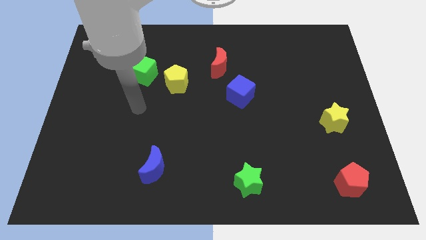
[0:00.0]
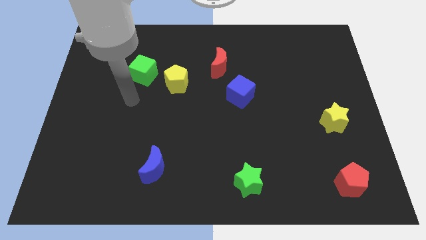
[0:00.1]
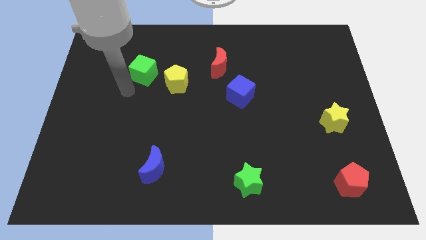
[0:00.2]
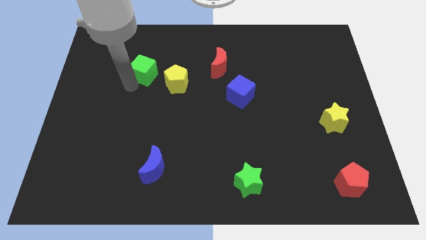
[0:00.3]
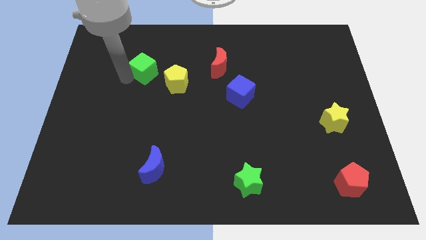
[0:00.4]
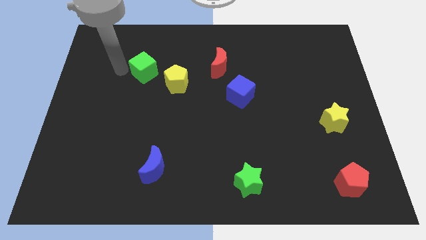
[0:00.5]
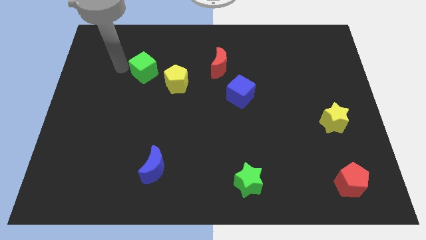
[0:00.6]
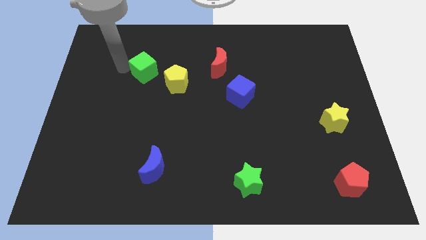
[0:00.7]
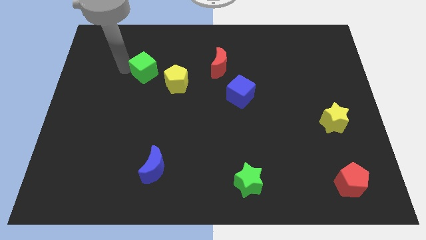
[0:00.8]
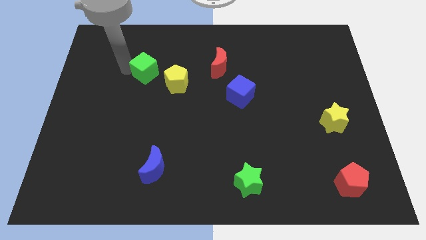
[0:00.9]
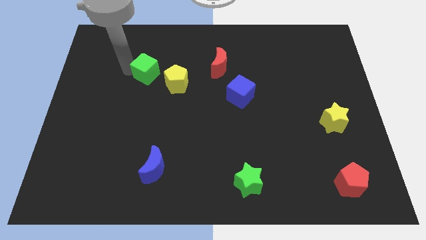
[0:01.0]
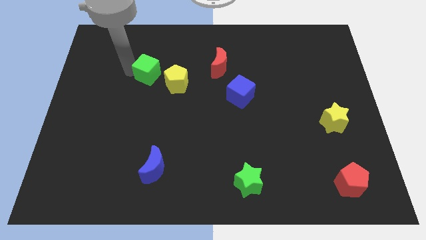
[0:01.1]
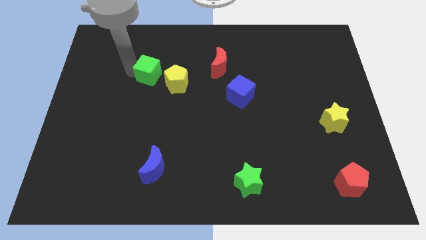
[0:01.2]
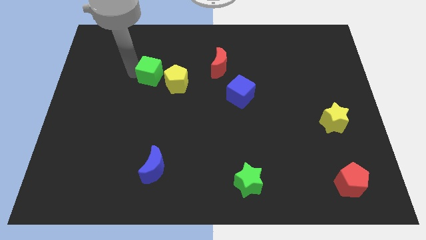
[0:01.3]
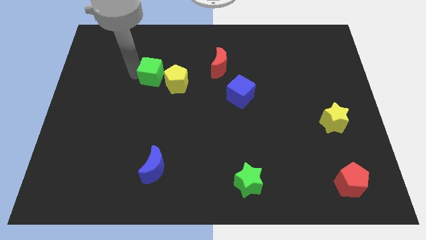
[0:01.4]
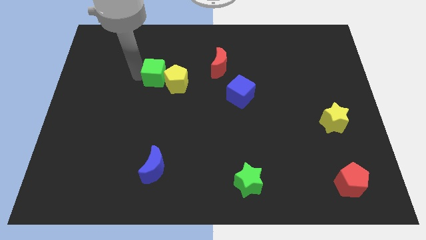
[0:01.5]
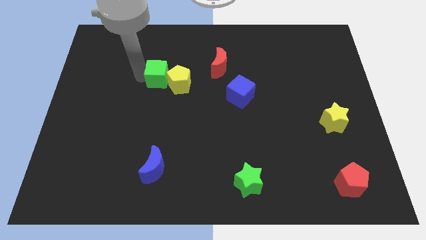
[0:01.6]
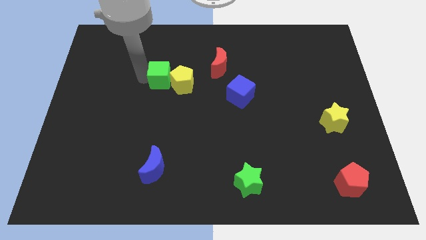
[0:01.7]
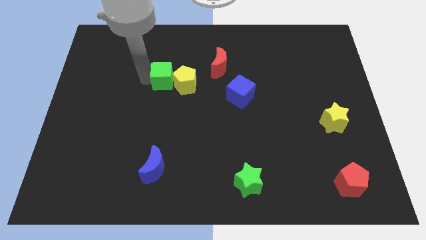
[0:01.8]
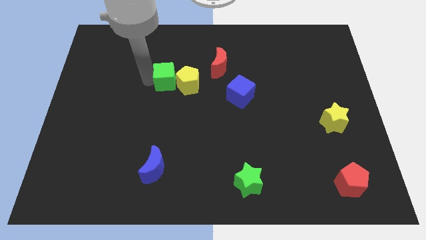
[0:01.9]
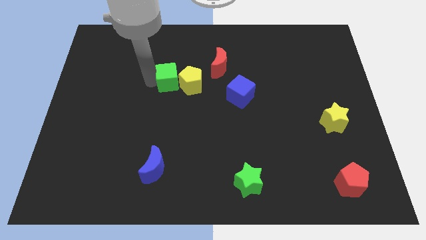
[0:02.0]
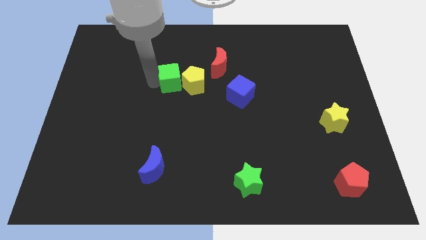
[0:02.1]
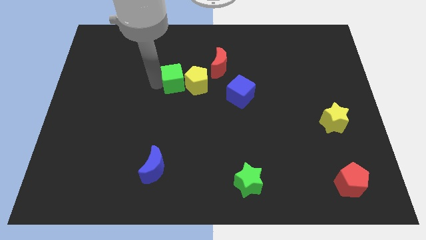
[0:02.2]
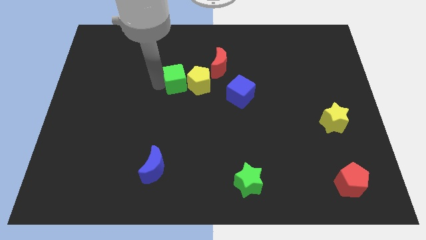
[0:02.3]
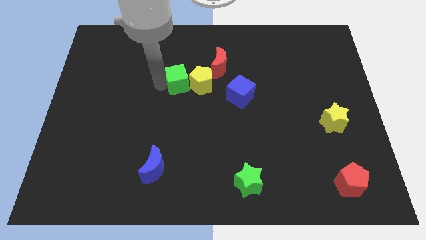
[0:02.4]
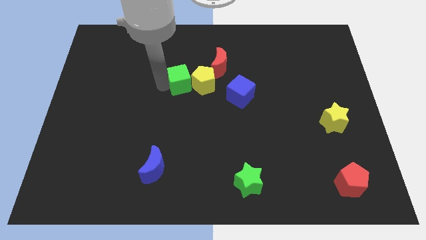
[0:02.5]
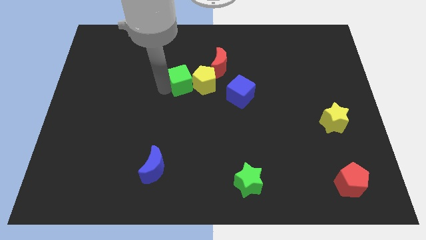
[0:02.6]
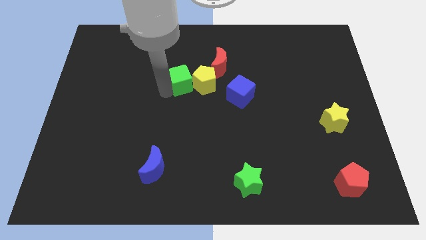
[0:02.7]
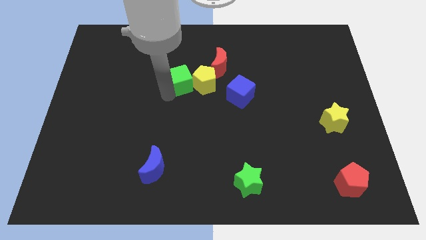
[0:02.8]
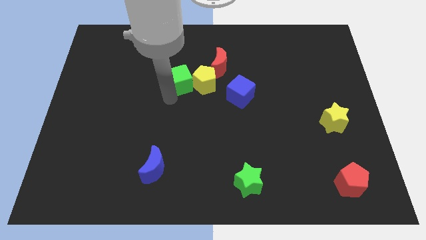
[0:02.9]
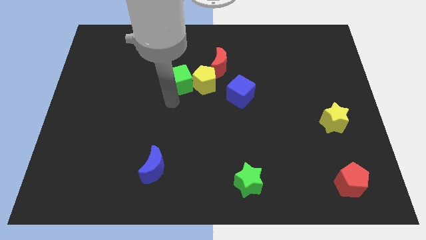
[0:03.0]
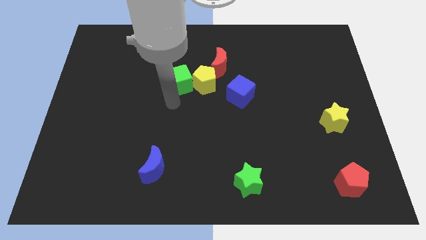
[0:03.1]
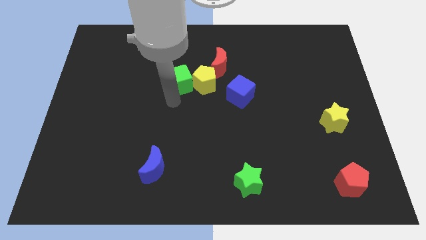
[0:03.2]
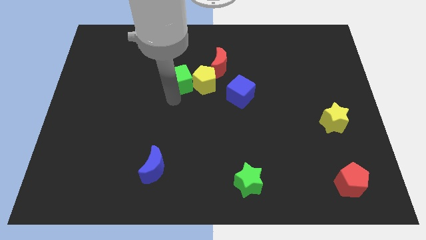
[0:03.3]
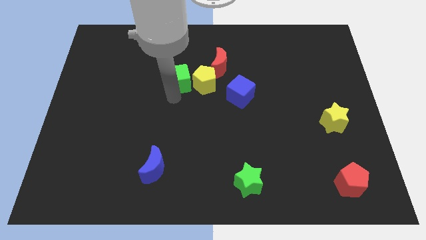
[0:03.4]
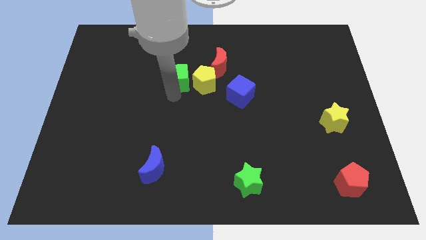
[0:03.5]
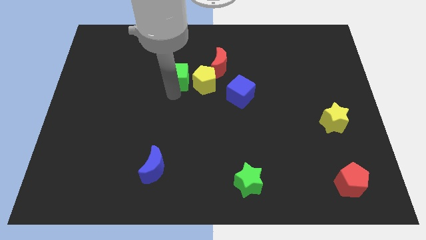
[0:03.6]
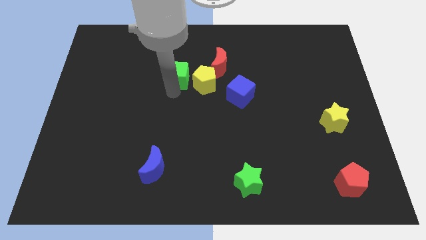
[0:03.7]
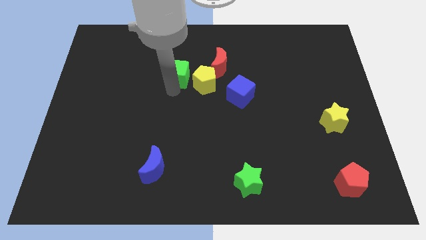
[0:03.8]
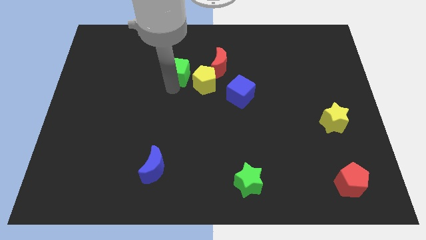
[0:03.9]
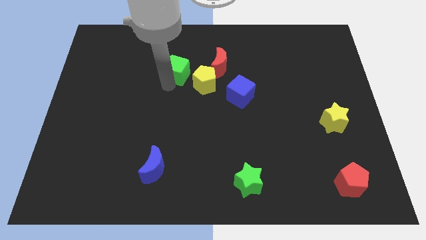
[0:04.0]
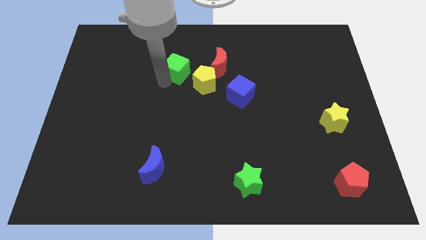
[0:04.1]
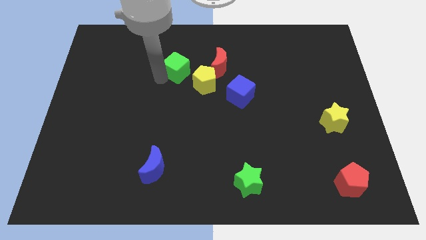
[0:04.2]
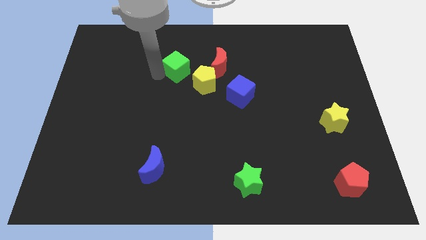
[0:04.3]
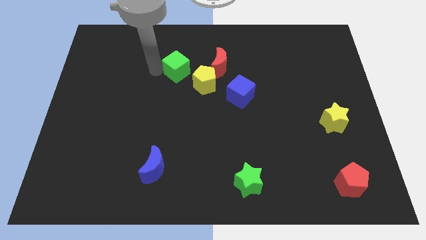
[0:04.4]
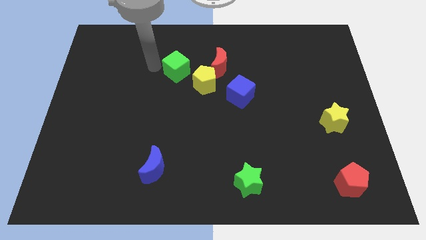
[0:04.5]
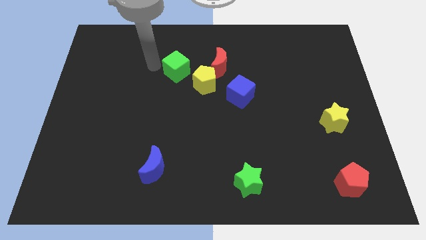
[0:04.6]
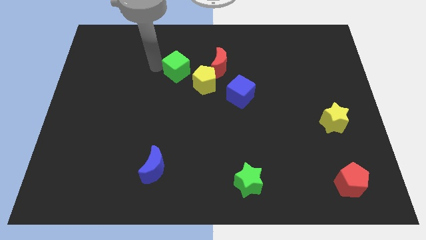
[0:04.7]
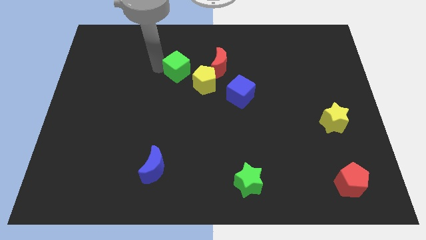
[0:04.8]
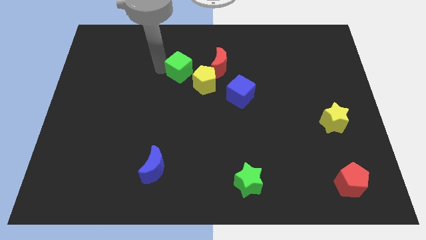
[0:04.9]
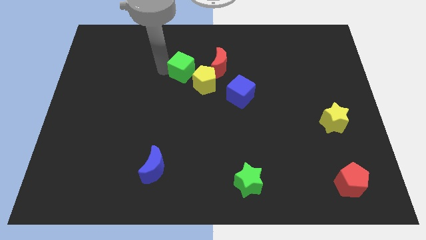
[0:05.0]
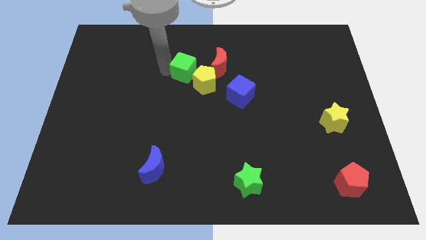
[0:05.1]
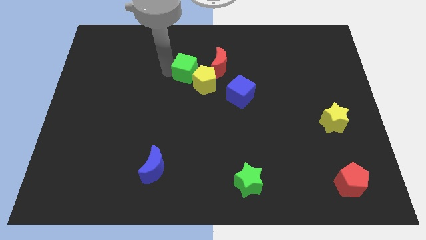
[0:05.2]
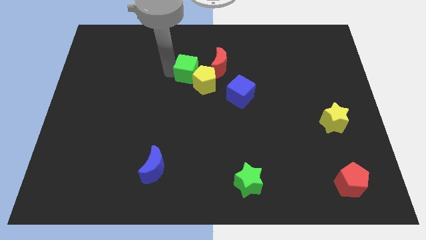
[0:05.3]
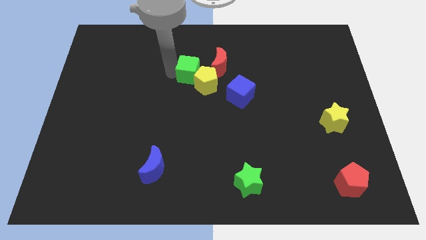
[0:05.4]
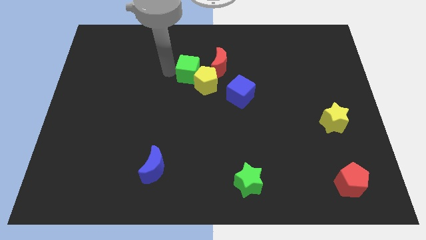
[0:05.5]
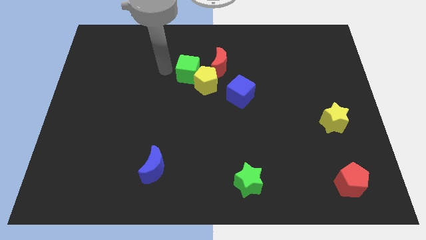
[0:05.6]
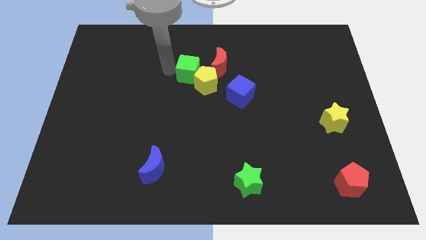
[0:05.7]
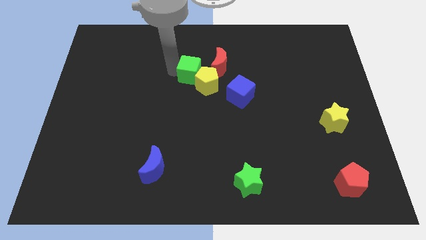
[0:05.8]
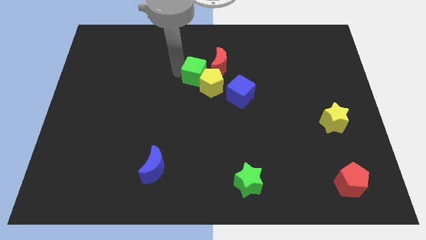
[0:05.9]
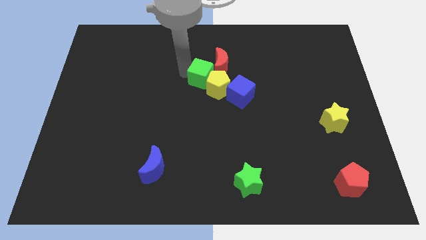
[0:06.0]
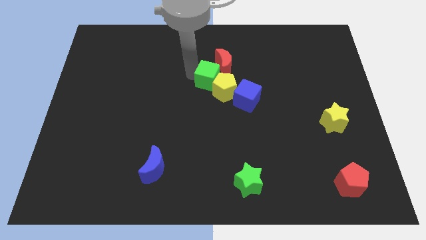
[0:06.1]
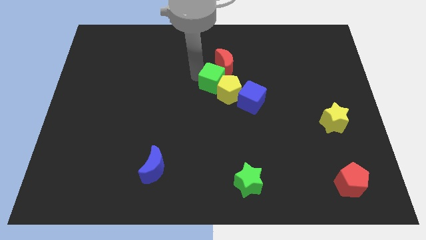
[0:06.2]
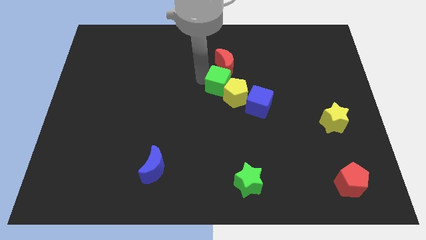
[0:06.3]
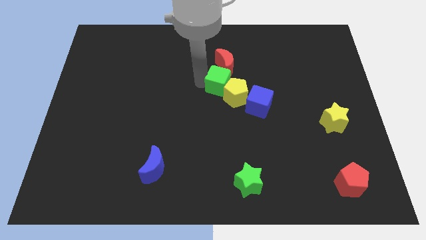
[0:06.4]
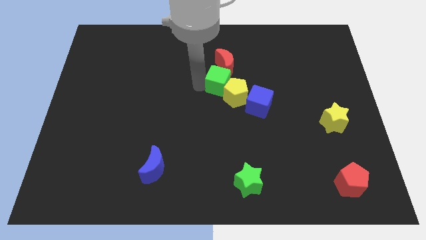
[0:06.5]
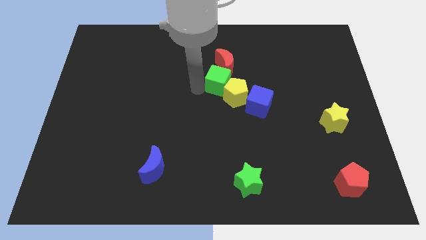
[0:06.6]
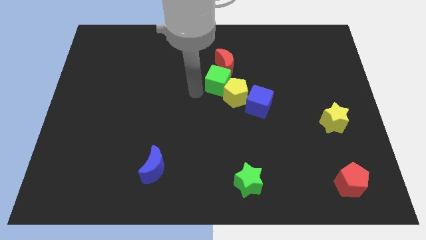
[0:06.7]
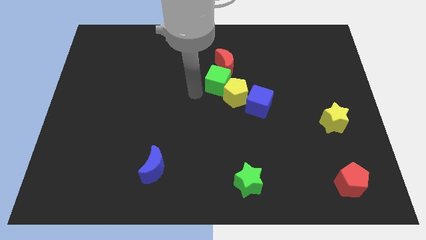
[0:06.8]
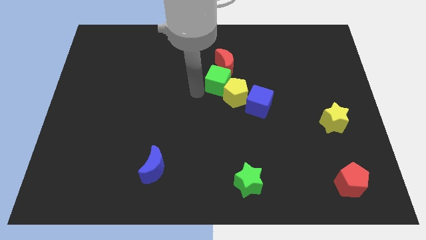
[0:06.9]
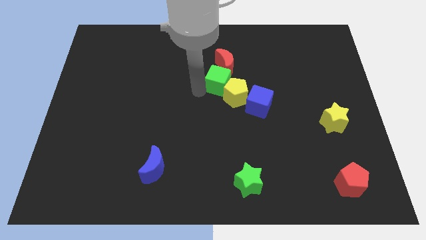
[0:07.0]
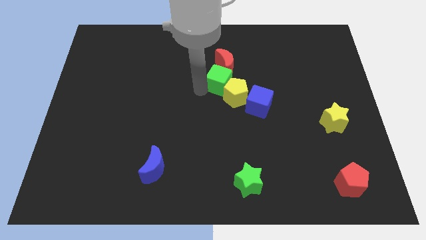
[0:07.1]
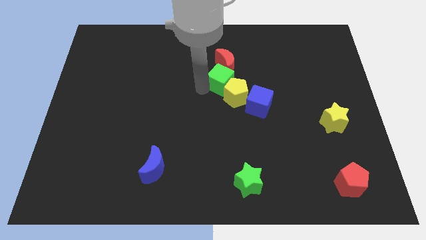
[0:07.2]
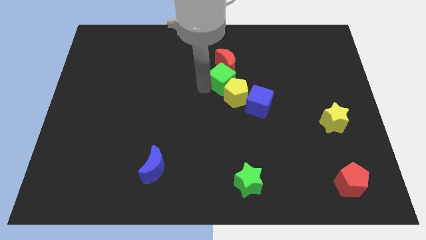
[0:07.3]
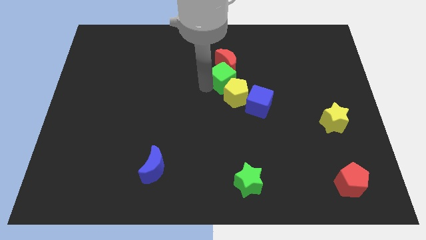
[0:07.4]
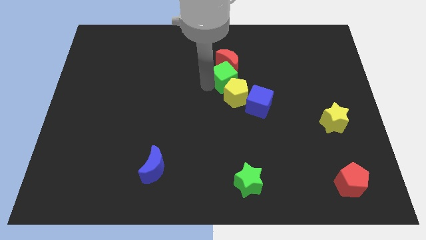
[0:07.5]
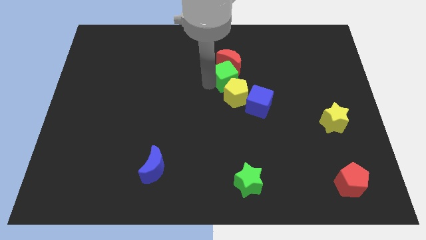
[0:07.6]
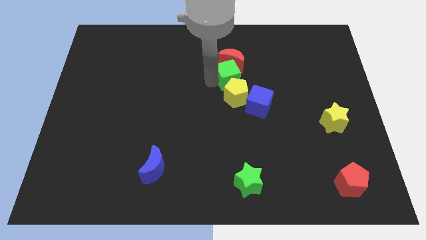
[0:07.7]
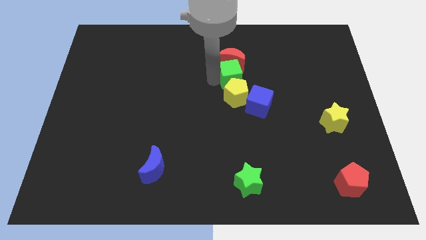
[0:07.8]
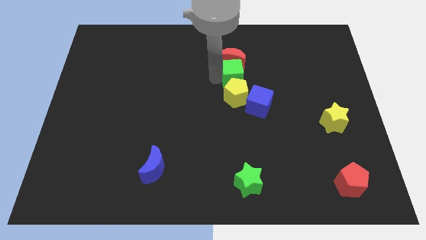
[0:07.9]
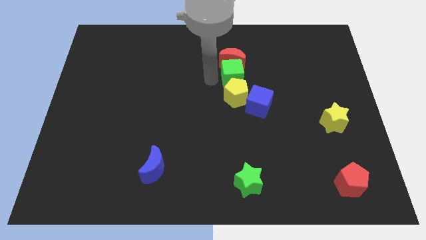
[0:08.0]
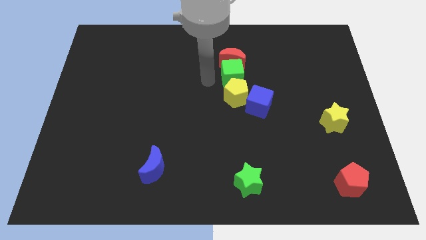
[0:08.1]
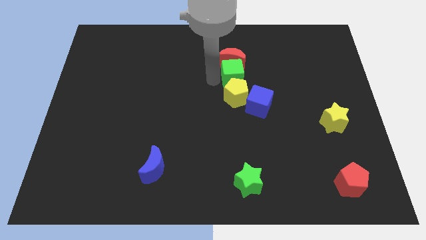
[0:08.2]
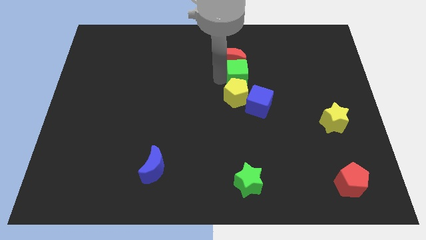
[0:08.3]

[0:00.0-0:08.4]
move the green cube to the top of the blue cube
